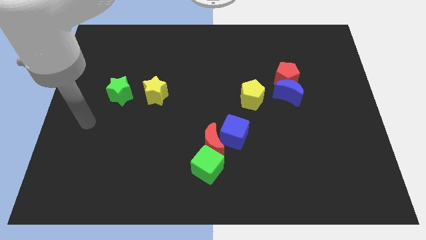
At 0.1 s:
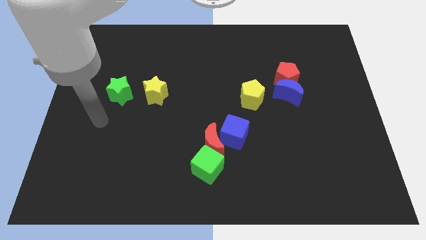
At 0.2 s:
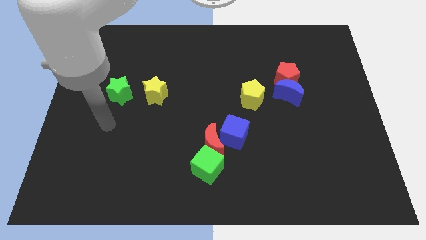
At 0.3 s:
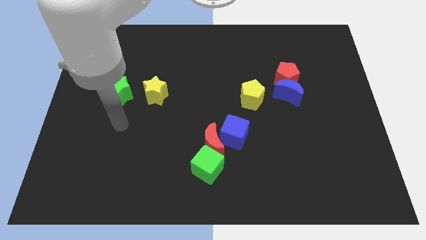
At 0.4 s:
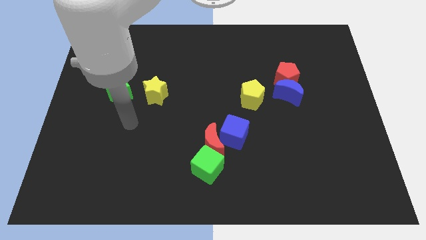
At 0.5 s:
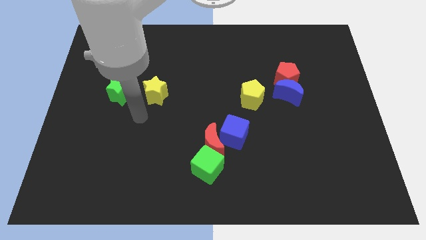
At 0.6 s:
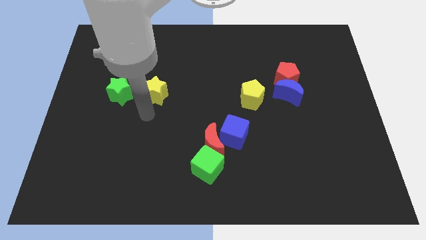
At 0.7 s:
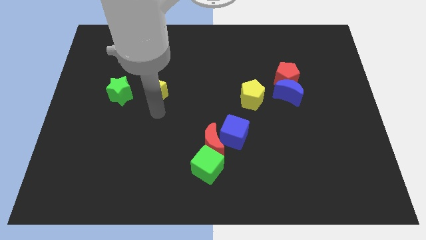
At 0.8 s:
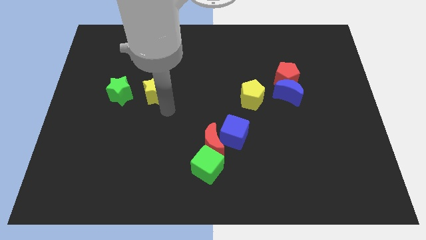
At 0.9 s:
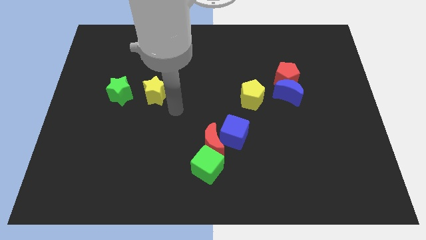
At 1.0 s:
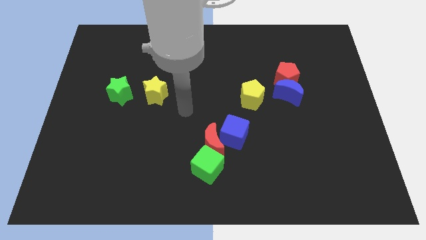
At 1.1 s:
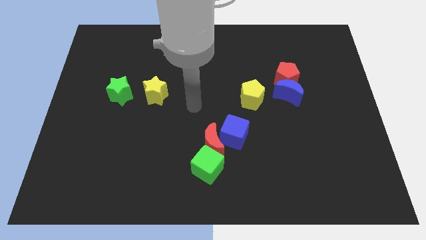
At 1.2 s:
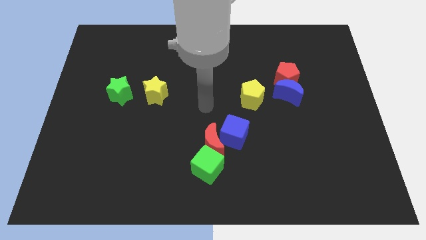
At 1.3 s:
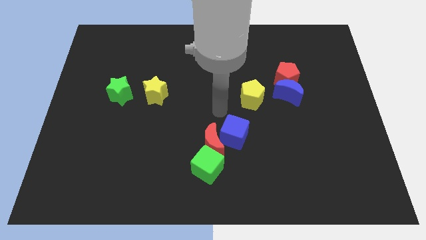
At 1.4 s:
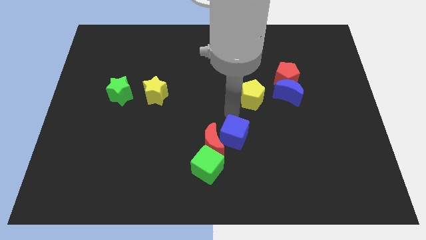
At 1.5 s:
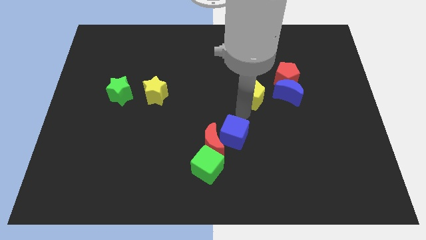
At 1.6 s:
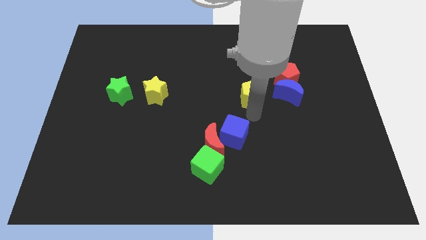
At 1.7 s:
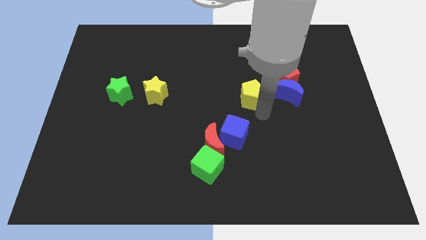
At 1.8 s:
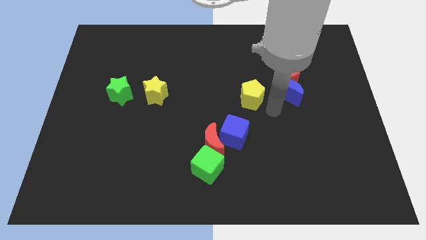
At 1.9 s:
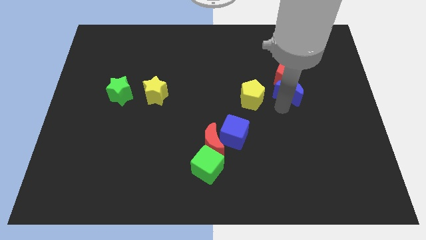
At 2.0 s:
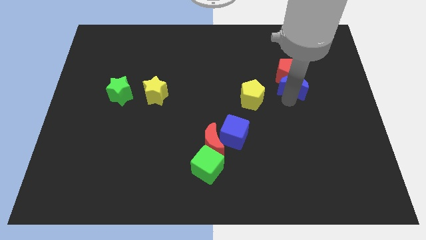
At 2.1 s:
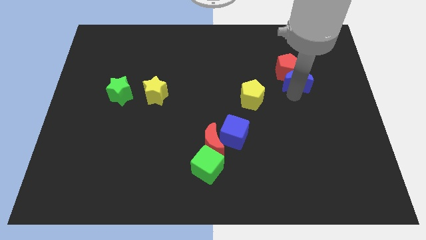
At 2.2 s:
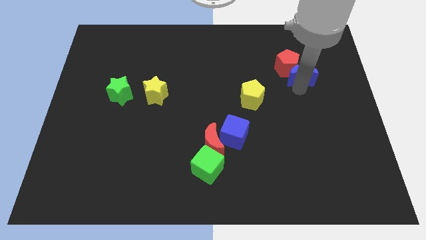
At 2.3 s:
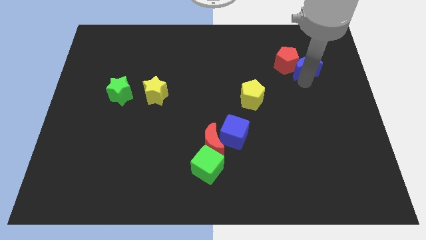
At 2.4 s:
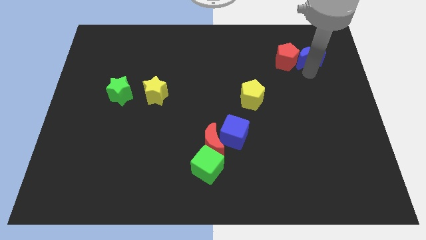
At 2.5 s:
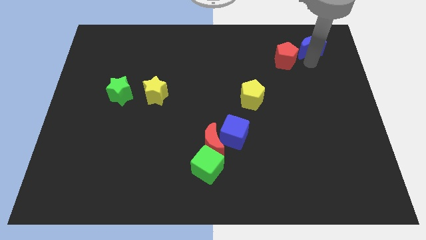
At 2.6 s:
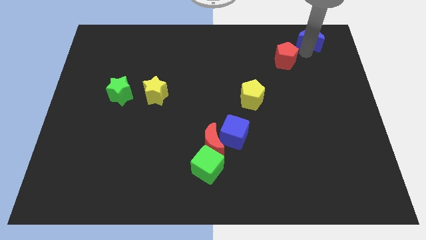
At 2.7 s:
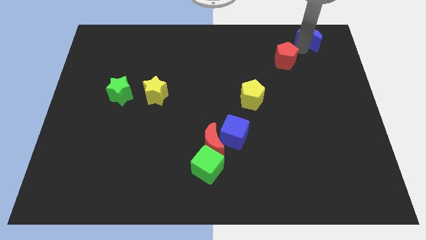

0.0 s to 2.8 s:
separate the red pentagon from the blue moon

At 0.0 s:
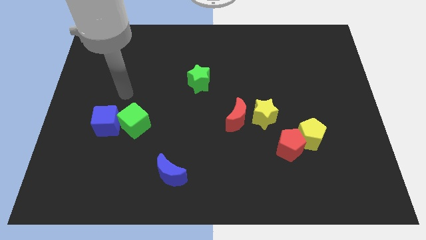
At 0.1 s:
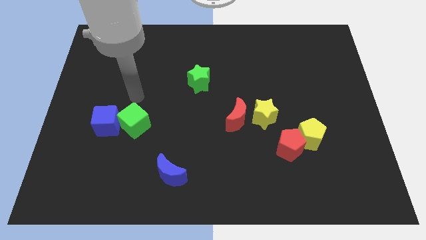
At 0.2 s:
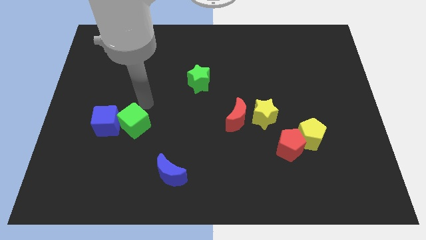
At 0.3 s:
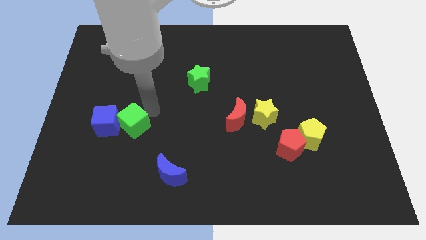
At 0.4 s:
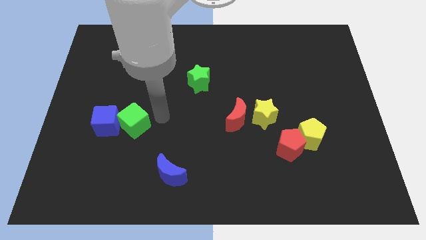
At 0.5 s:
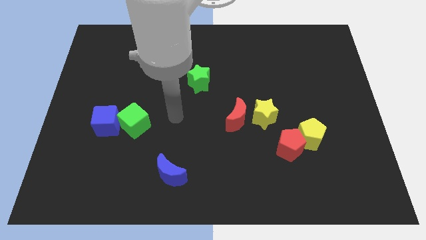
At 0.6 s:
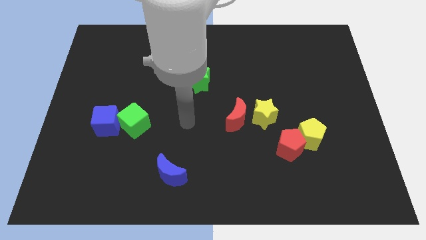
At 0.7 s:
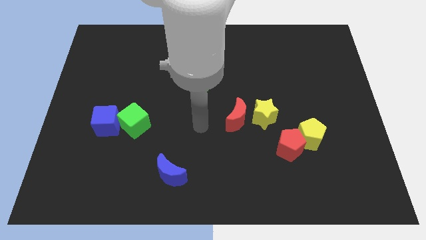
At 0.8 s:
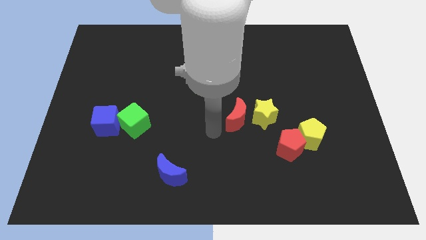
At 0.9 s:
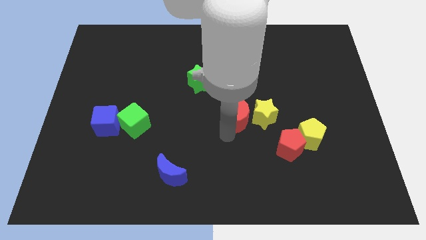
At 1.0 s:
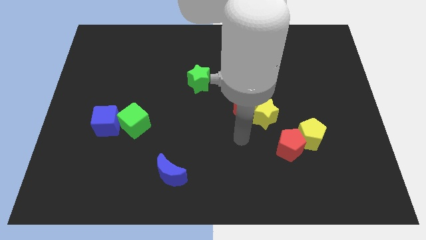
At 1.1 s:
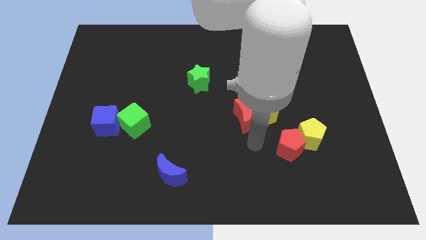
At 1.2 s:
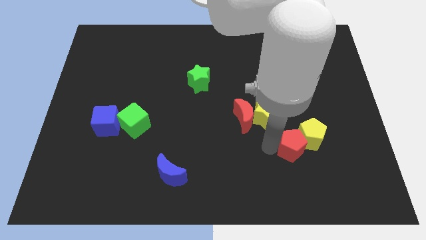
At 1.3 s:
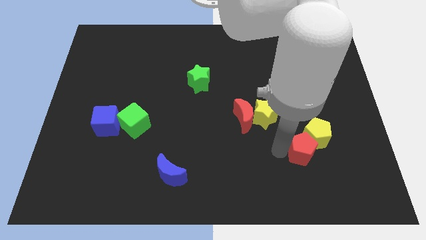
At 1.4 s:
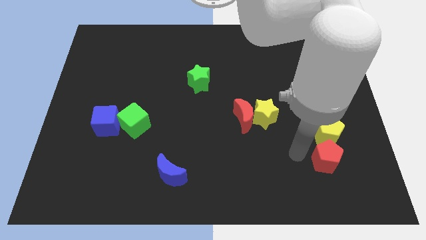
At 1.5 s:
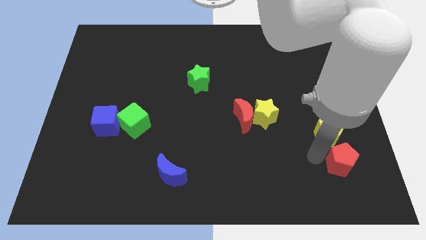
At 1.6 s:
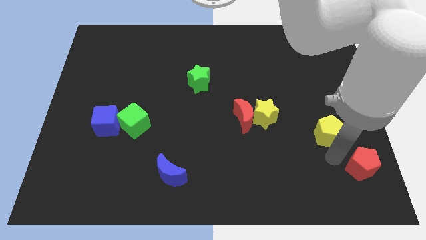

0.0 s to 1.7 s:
pull the yellow pentagon apart from the red pentagon

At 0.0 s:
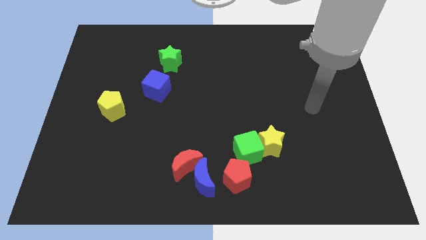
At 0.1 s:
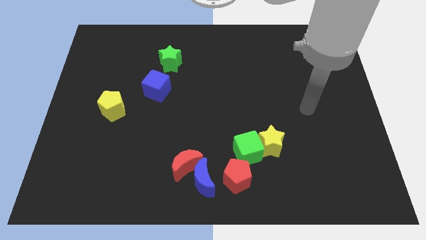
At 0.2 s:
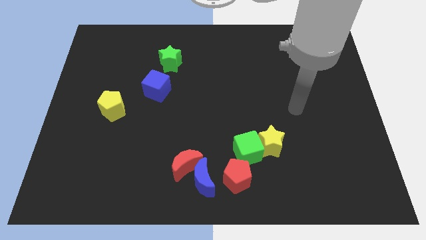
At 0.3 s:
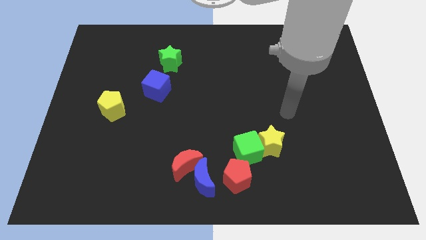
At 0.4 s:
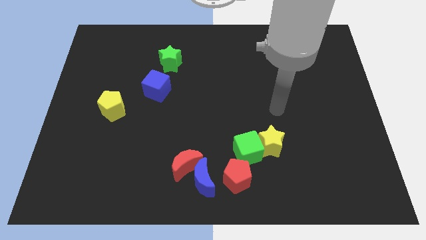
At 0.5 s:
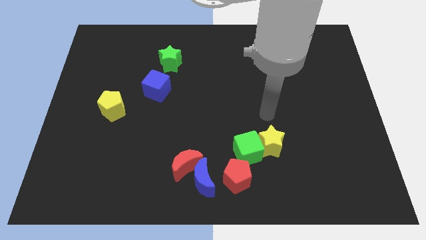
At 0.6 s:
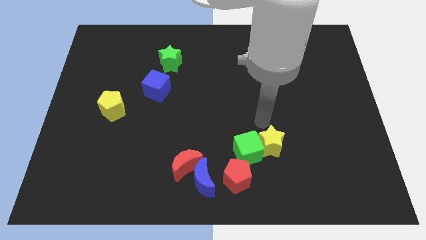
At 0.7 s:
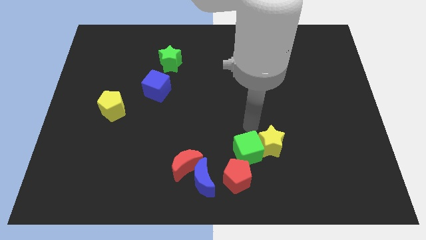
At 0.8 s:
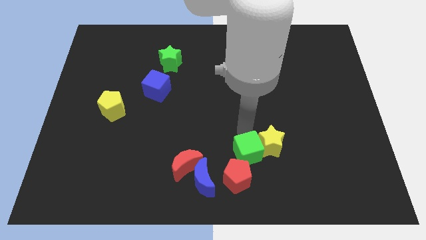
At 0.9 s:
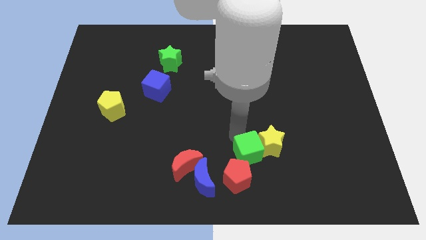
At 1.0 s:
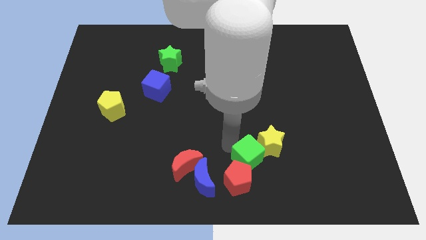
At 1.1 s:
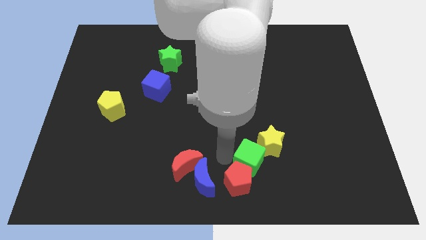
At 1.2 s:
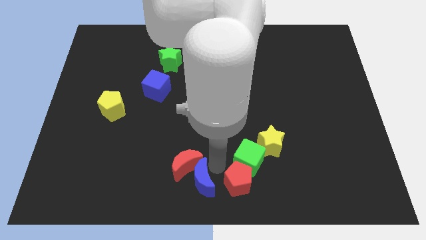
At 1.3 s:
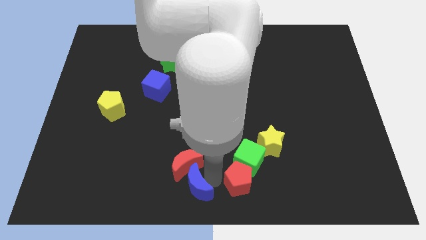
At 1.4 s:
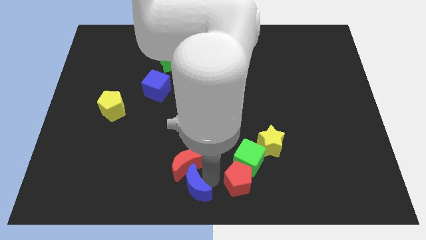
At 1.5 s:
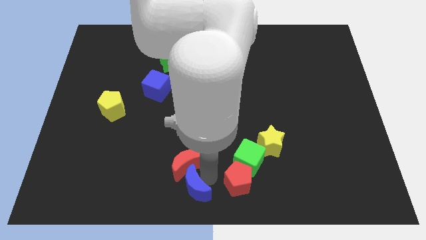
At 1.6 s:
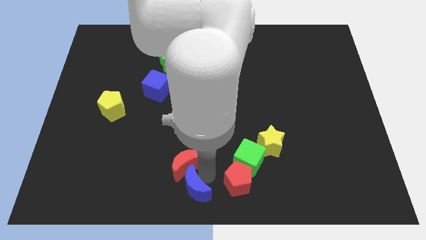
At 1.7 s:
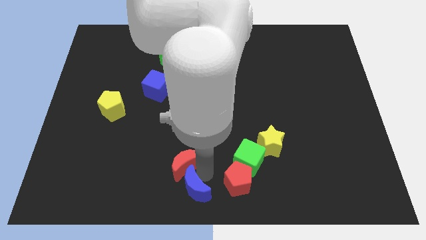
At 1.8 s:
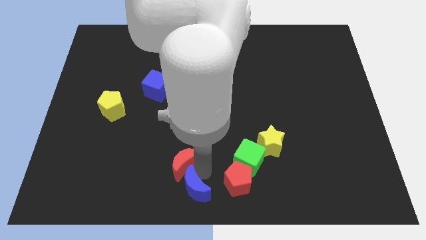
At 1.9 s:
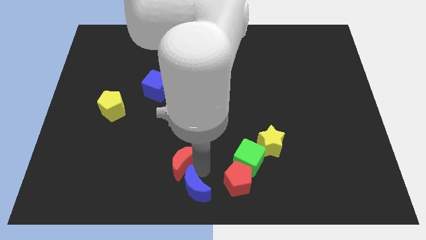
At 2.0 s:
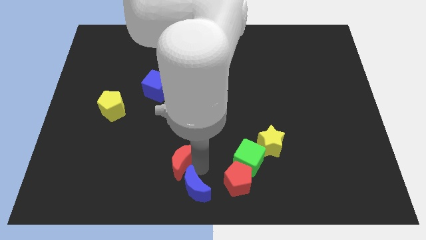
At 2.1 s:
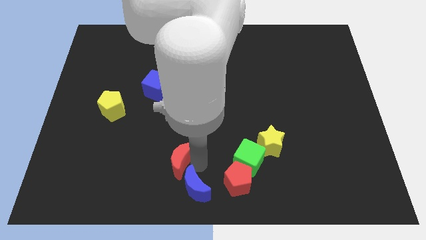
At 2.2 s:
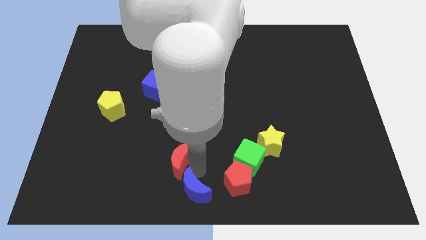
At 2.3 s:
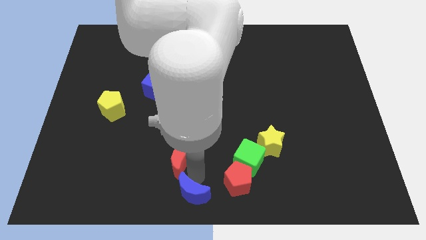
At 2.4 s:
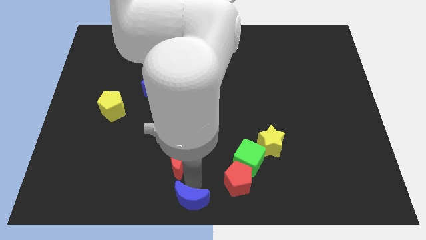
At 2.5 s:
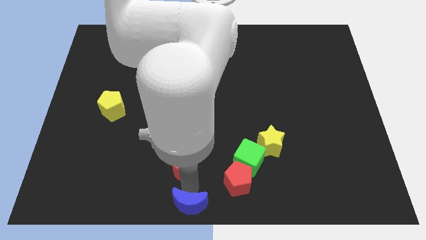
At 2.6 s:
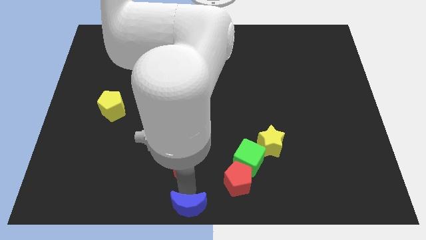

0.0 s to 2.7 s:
move the red moon away from the blue moon

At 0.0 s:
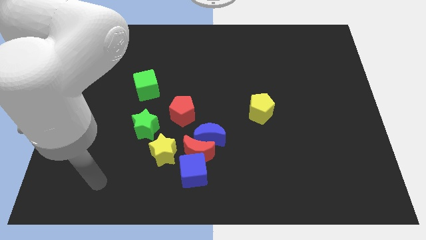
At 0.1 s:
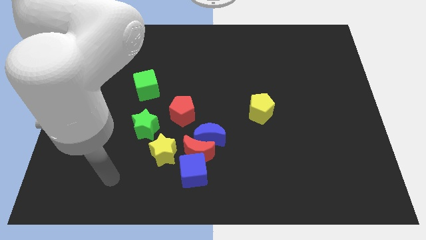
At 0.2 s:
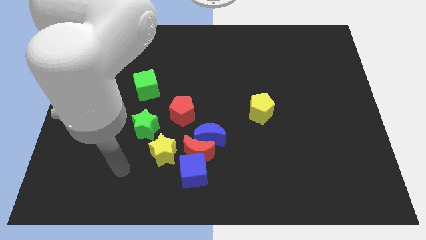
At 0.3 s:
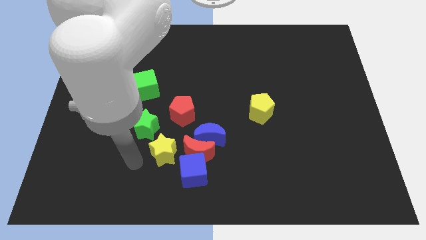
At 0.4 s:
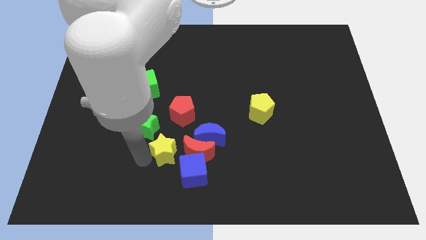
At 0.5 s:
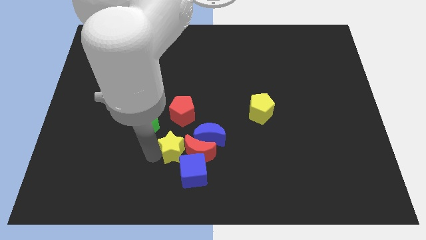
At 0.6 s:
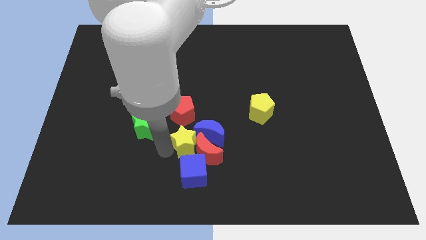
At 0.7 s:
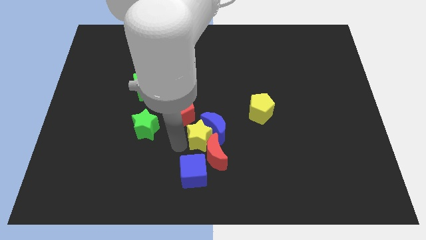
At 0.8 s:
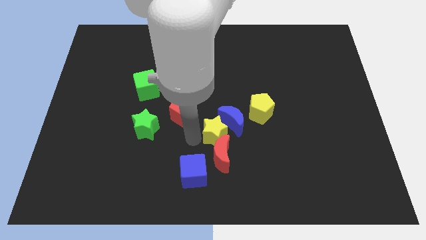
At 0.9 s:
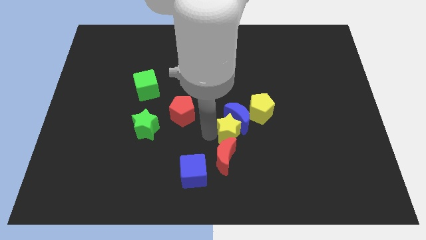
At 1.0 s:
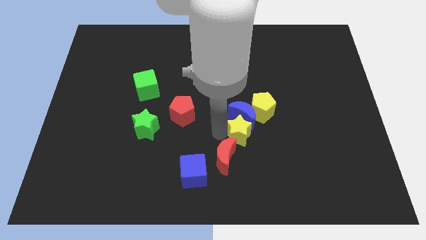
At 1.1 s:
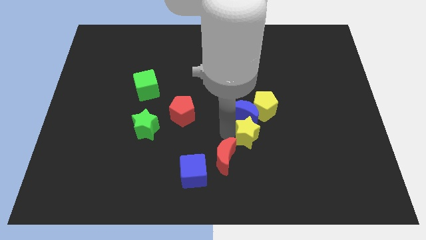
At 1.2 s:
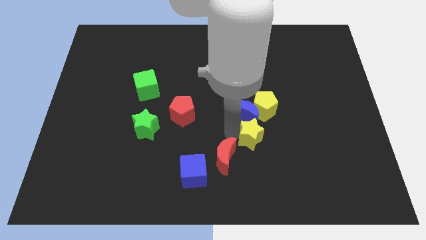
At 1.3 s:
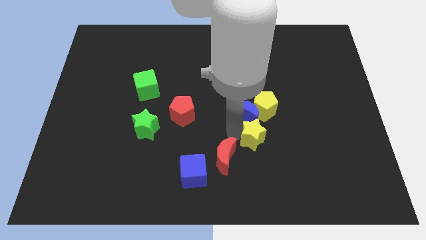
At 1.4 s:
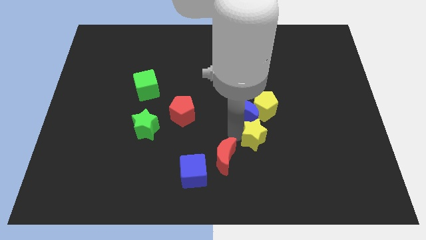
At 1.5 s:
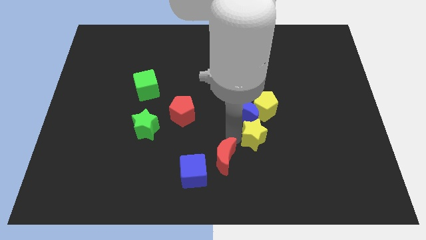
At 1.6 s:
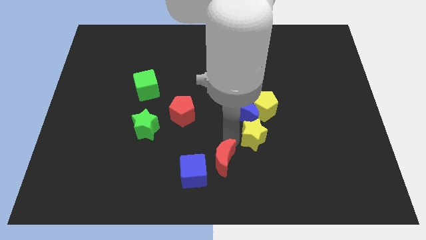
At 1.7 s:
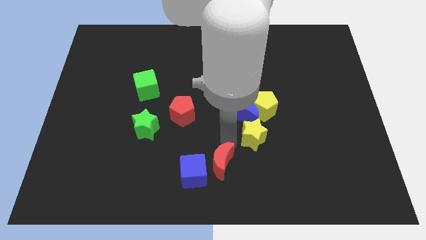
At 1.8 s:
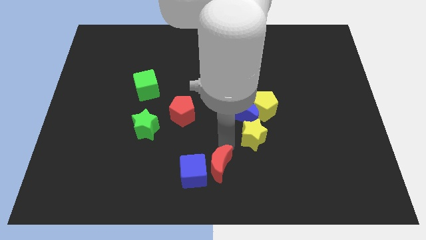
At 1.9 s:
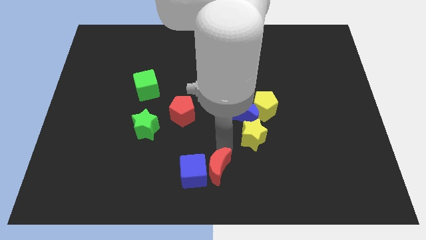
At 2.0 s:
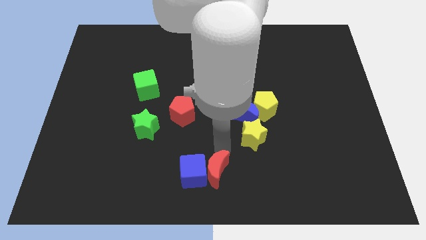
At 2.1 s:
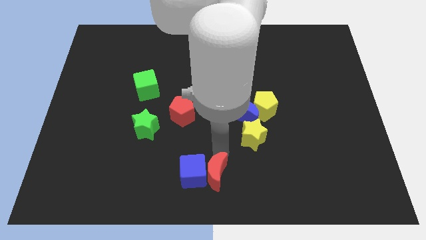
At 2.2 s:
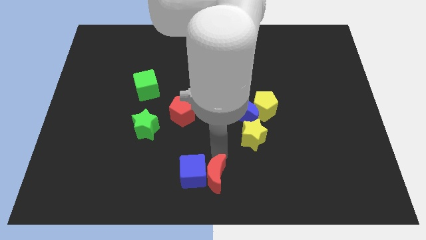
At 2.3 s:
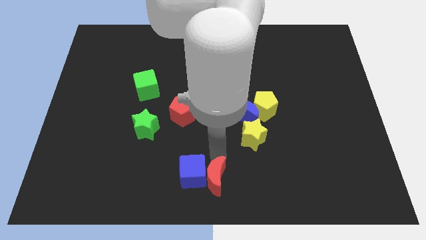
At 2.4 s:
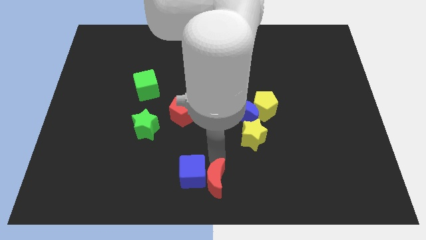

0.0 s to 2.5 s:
pull the red moon apart from the group of blocks
